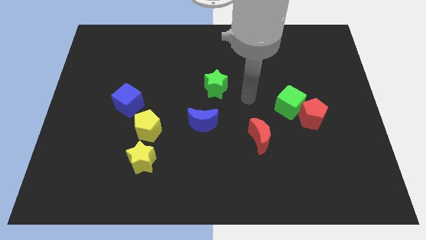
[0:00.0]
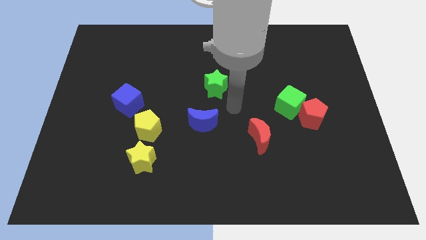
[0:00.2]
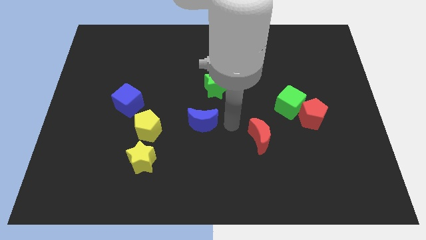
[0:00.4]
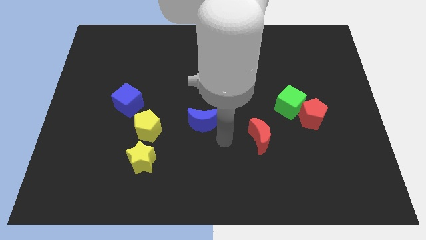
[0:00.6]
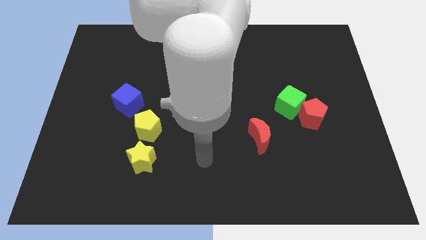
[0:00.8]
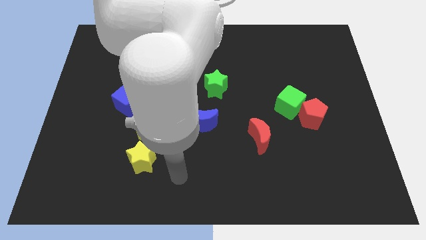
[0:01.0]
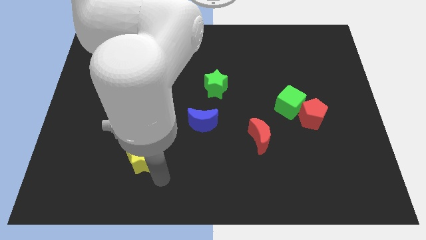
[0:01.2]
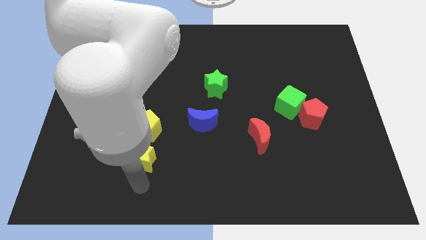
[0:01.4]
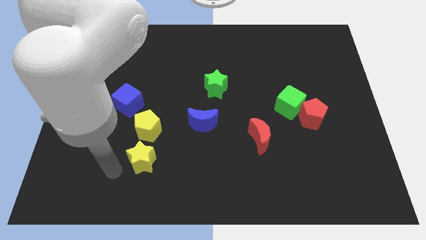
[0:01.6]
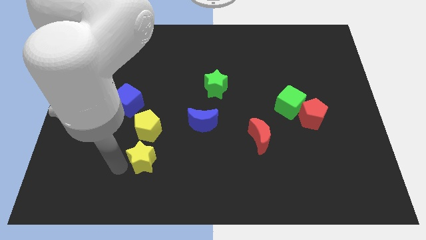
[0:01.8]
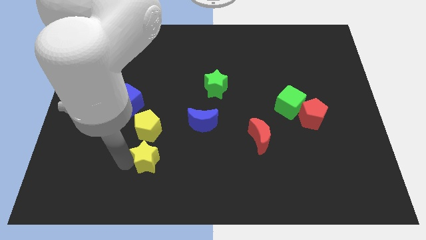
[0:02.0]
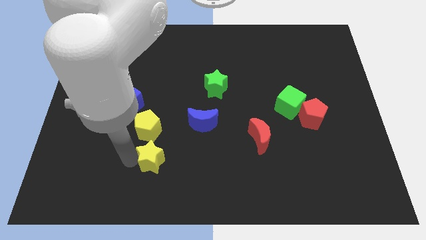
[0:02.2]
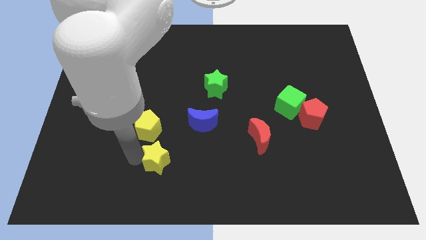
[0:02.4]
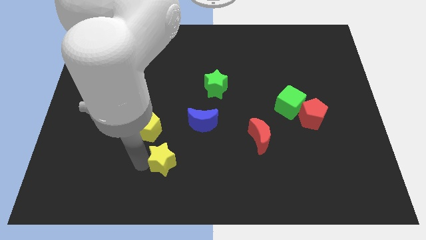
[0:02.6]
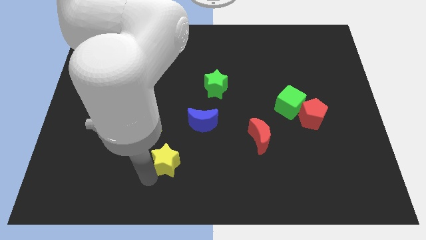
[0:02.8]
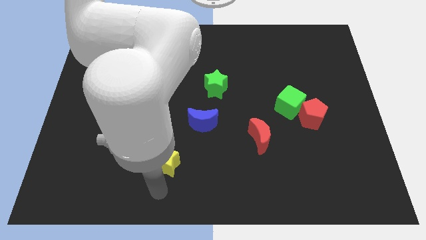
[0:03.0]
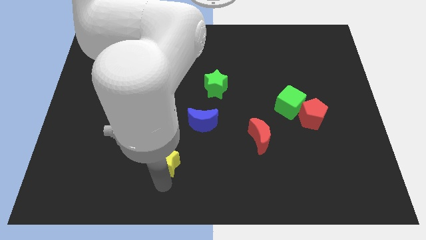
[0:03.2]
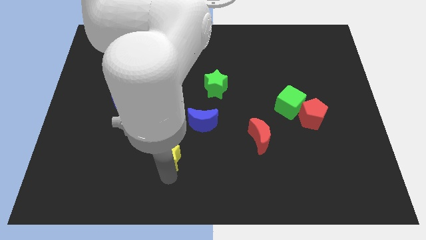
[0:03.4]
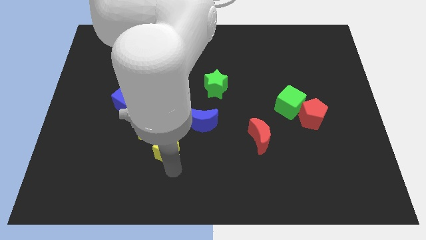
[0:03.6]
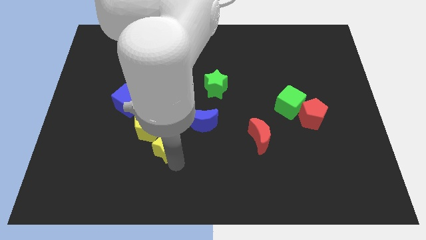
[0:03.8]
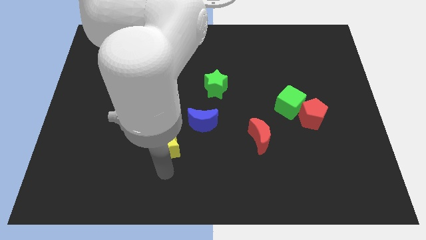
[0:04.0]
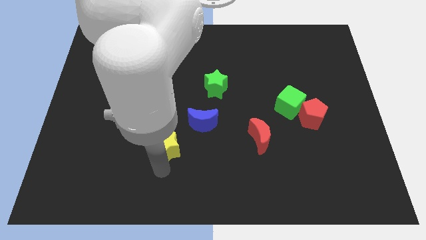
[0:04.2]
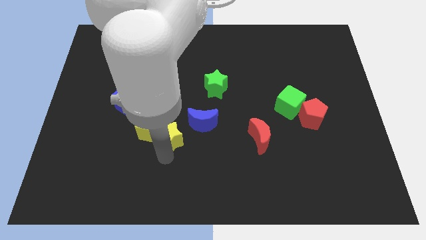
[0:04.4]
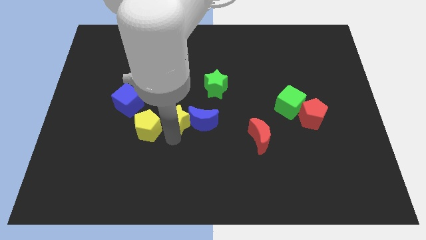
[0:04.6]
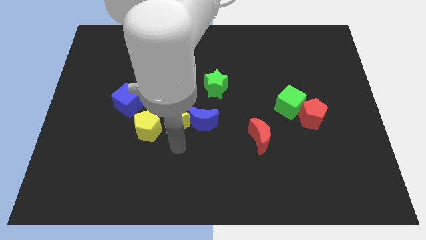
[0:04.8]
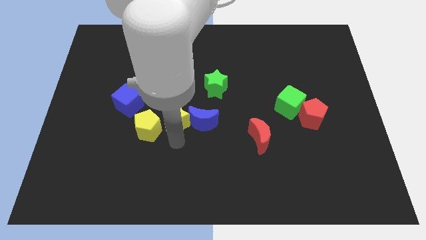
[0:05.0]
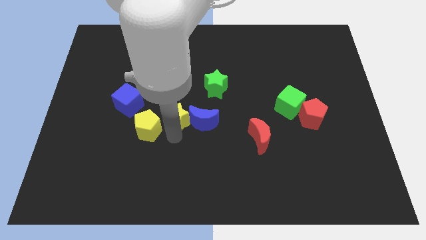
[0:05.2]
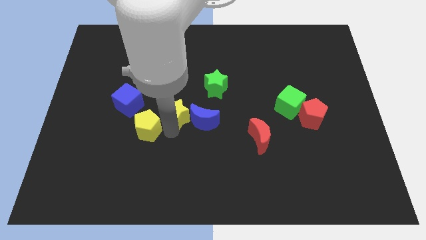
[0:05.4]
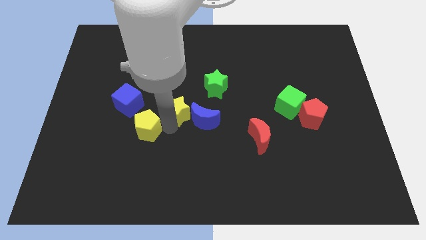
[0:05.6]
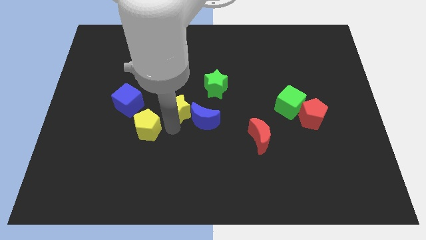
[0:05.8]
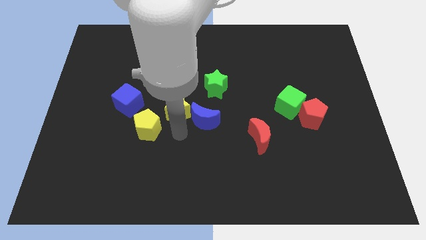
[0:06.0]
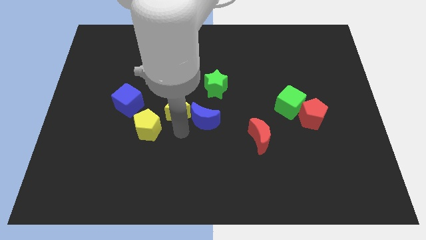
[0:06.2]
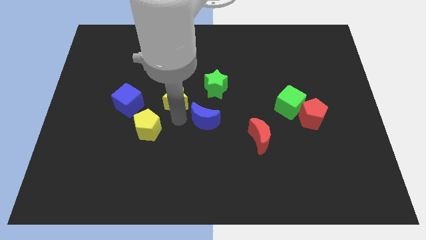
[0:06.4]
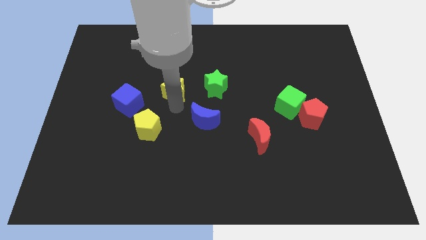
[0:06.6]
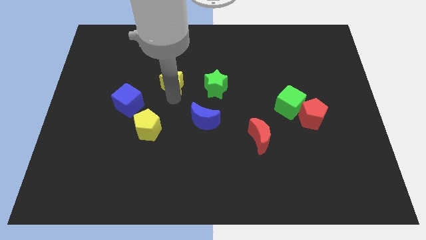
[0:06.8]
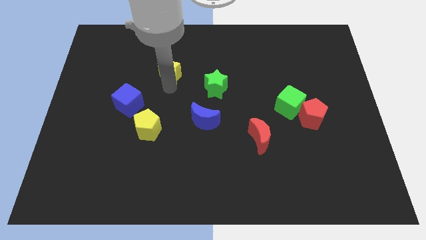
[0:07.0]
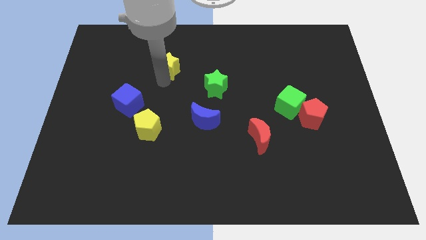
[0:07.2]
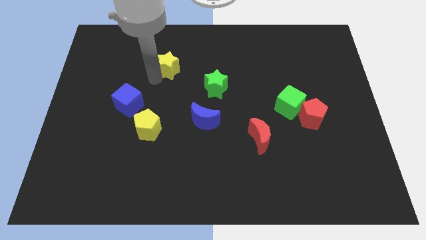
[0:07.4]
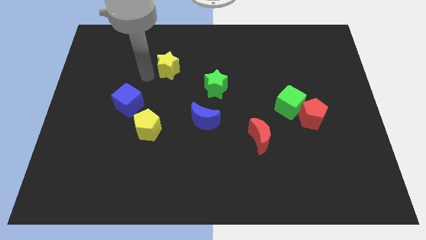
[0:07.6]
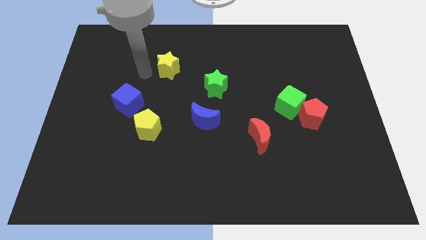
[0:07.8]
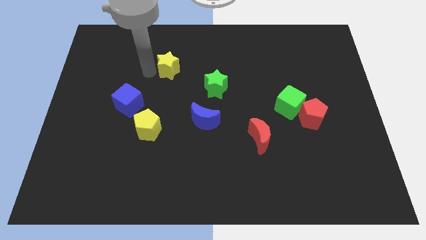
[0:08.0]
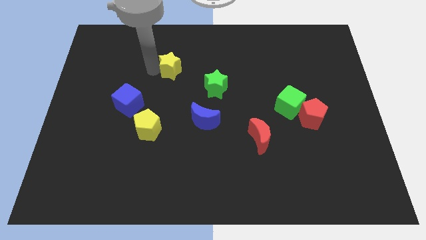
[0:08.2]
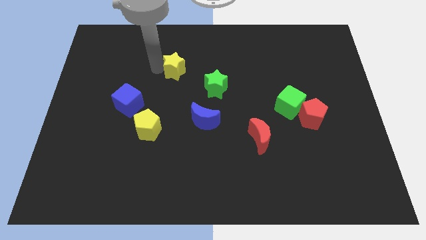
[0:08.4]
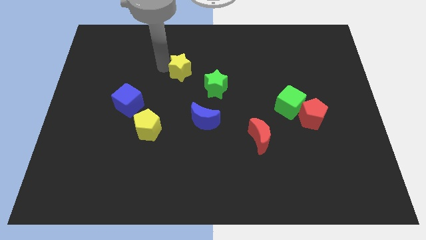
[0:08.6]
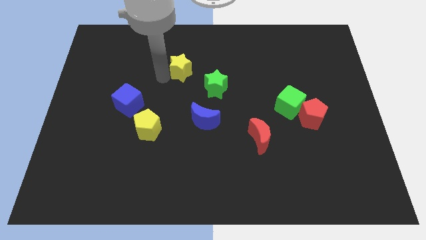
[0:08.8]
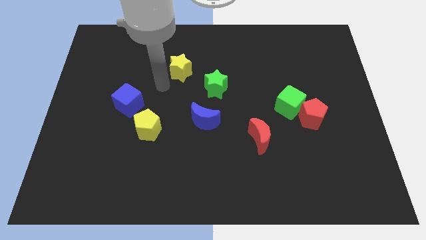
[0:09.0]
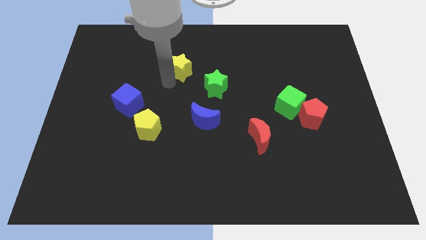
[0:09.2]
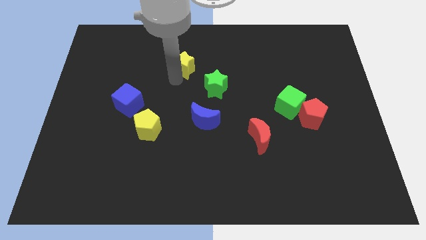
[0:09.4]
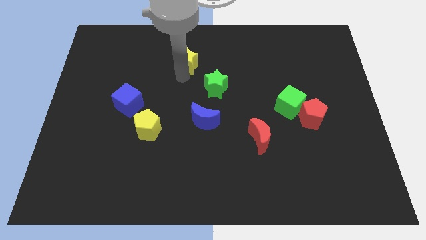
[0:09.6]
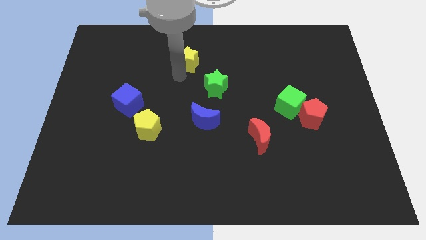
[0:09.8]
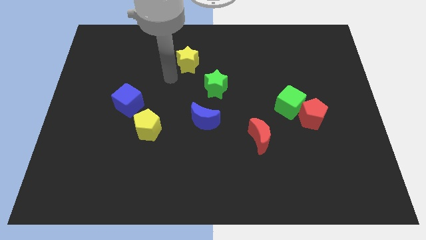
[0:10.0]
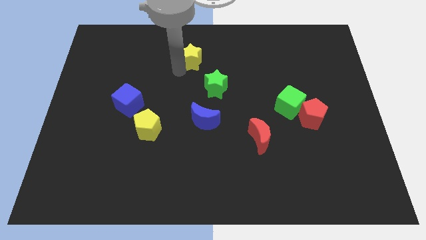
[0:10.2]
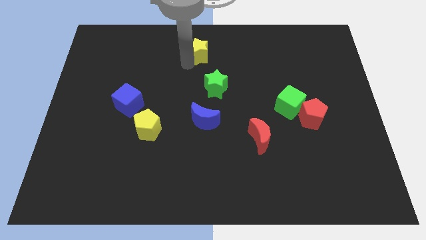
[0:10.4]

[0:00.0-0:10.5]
put the yellow star to the top

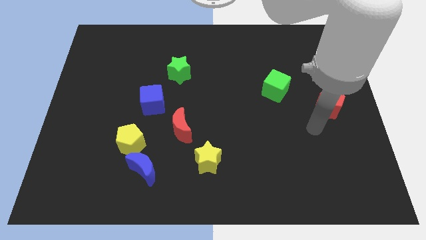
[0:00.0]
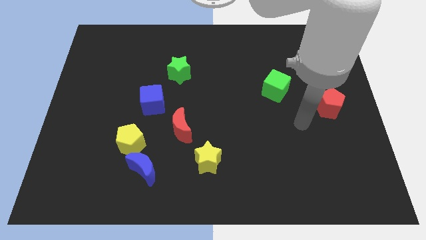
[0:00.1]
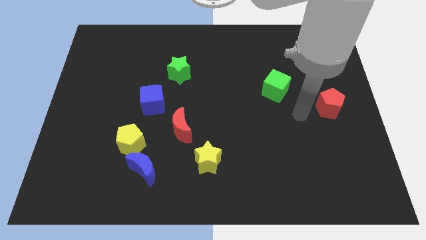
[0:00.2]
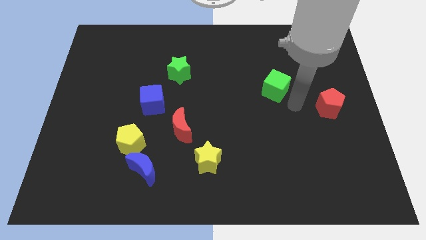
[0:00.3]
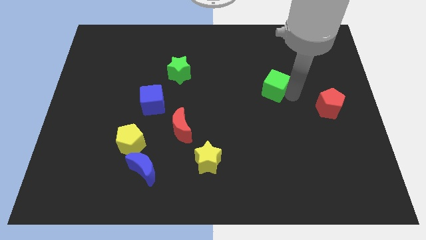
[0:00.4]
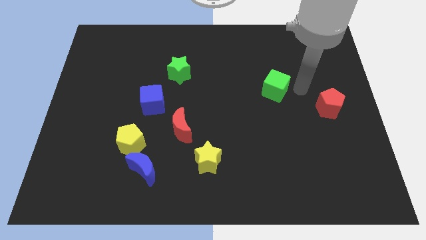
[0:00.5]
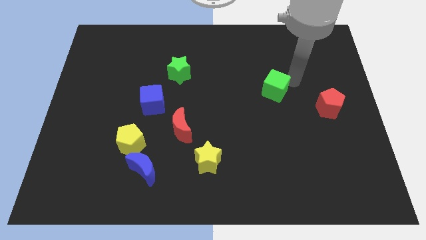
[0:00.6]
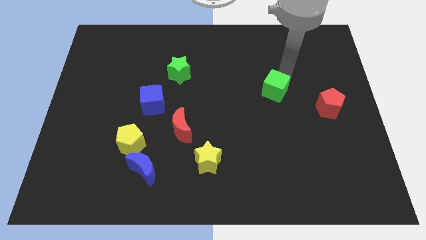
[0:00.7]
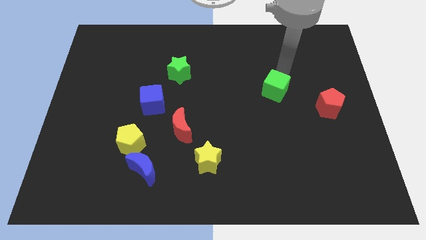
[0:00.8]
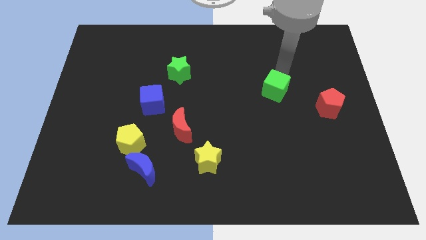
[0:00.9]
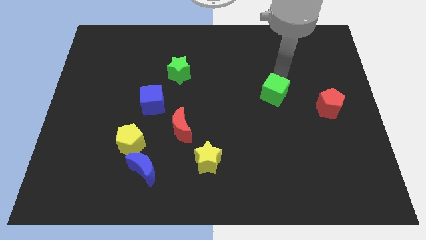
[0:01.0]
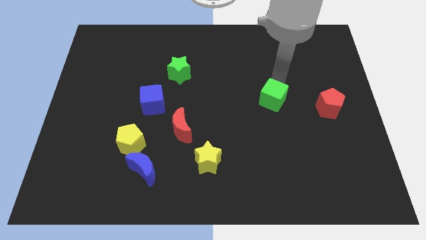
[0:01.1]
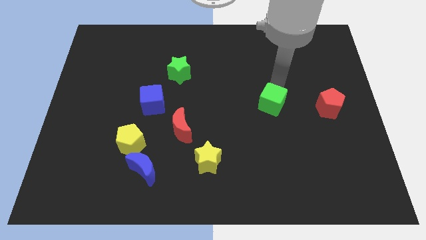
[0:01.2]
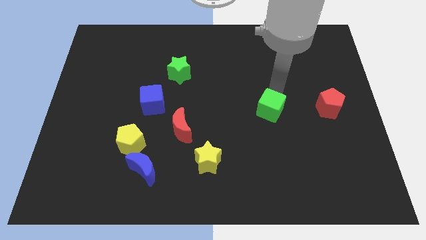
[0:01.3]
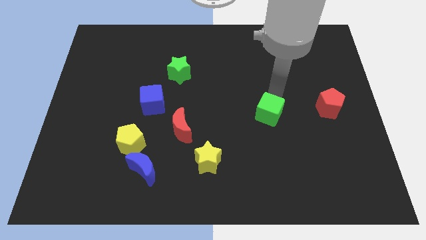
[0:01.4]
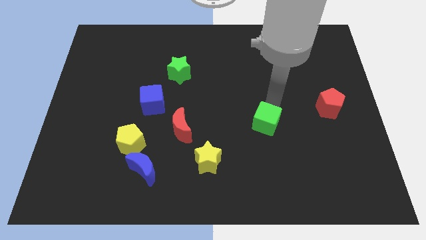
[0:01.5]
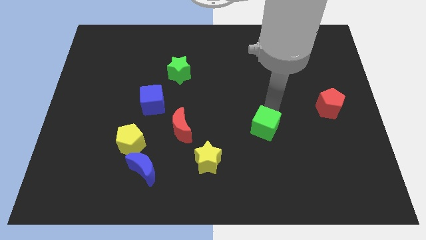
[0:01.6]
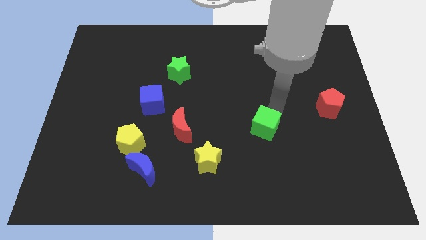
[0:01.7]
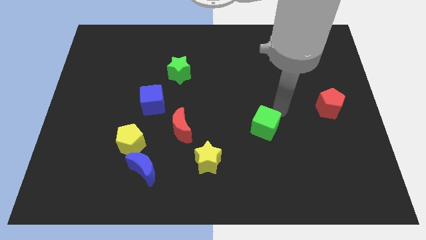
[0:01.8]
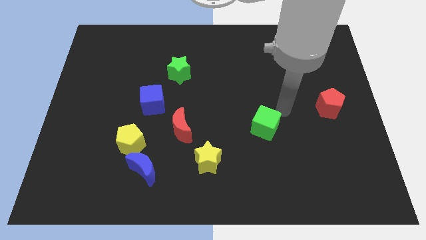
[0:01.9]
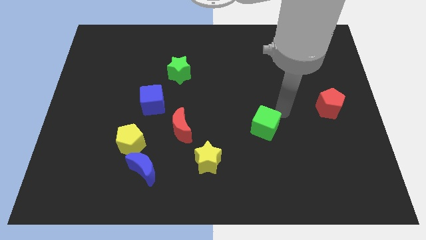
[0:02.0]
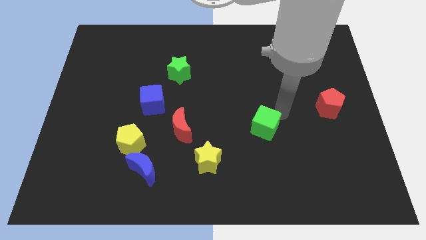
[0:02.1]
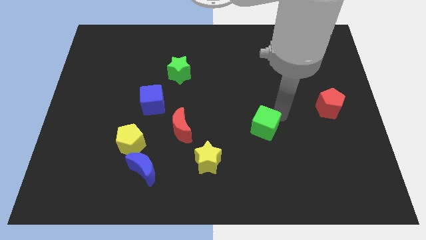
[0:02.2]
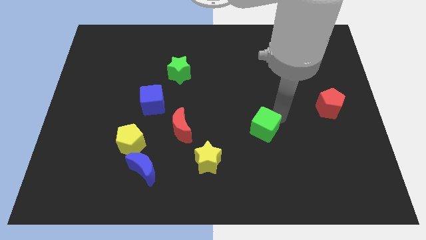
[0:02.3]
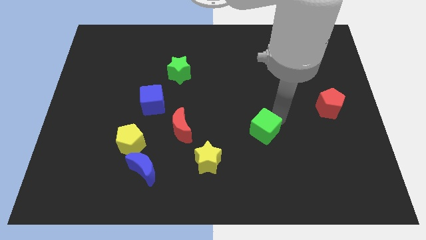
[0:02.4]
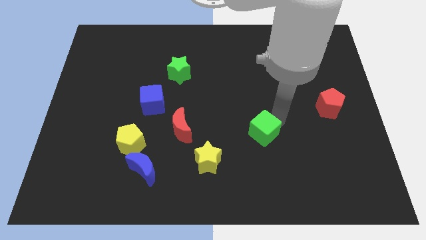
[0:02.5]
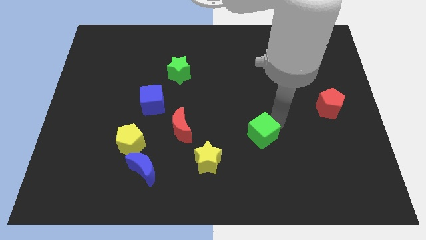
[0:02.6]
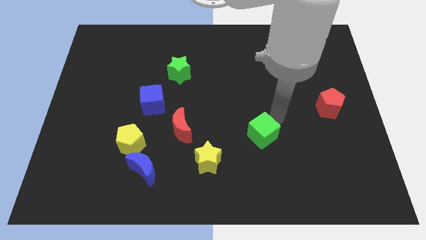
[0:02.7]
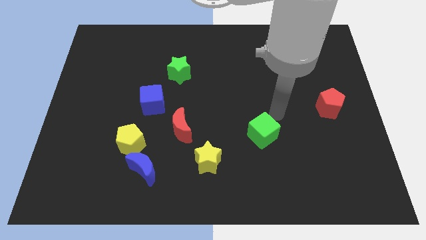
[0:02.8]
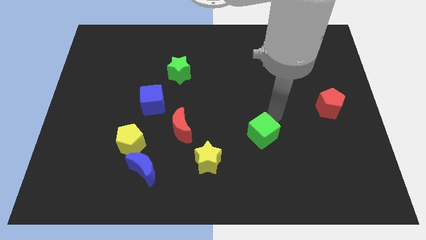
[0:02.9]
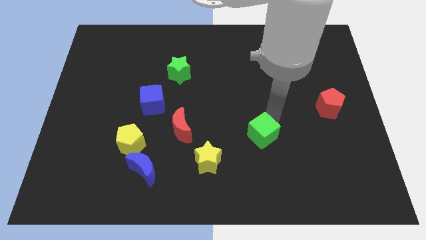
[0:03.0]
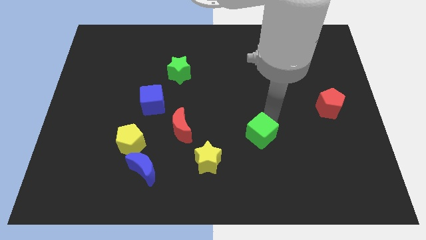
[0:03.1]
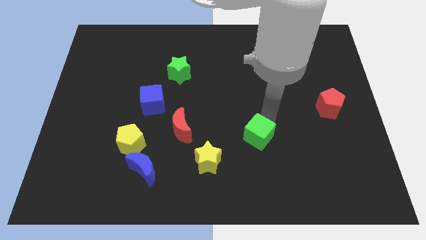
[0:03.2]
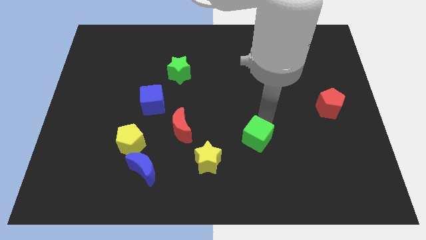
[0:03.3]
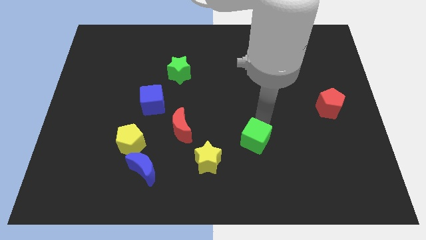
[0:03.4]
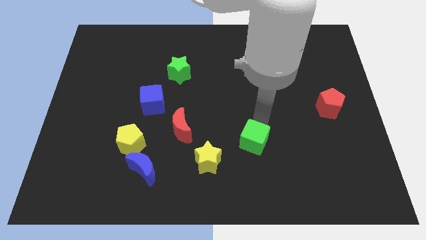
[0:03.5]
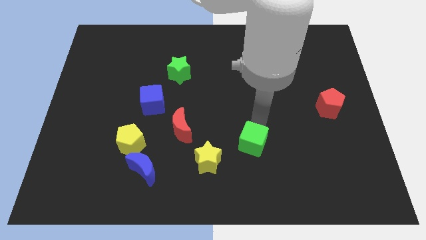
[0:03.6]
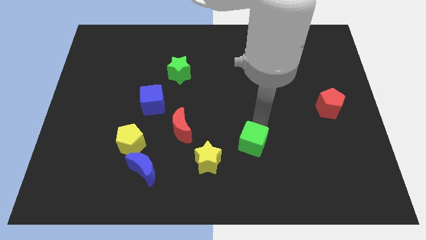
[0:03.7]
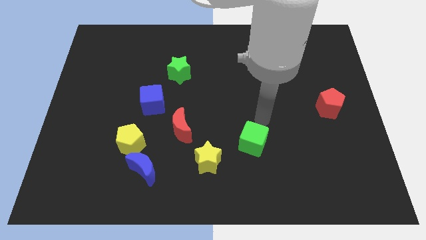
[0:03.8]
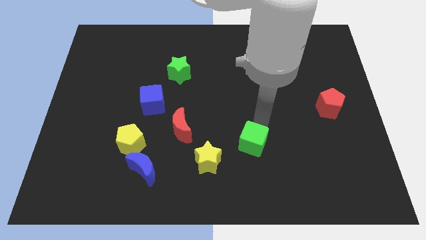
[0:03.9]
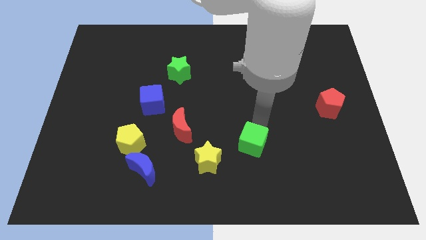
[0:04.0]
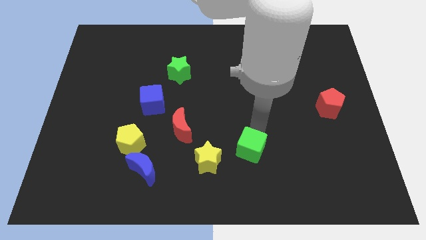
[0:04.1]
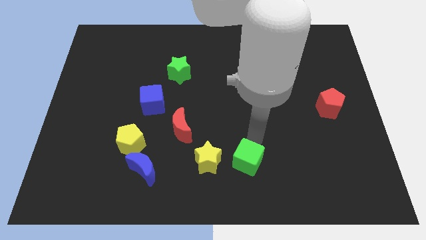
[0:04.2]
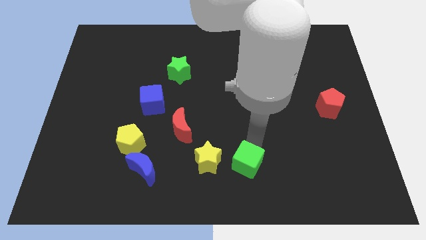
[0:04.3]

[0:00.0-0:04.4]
push the green cube to the bottom
